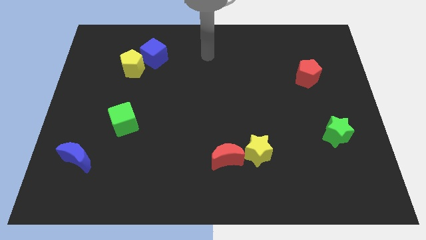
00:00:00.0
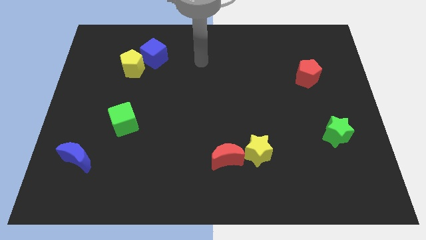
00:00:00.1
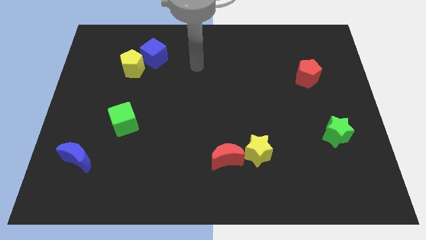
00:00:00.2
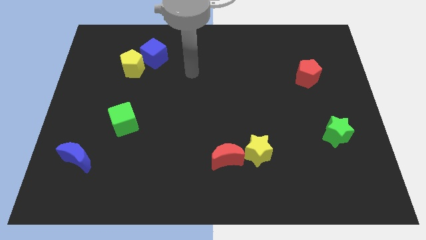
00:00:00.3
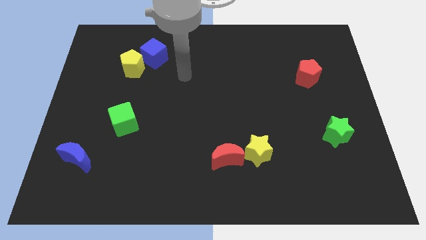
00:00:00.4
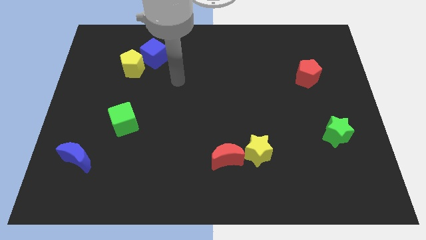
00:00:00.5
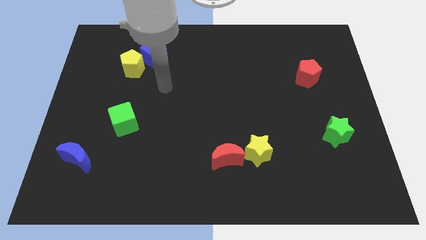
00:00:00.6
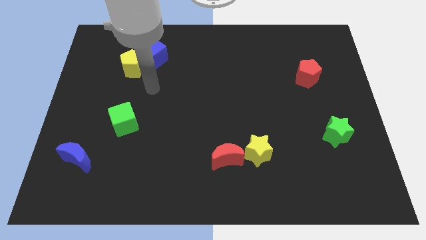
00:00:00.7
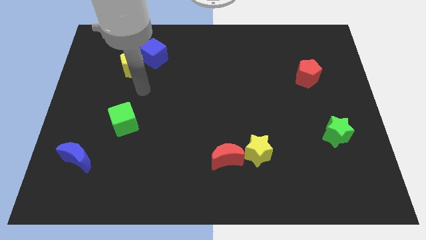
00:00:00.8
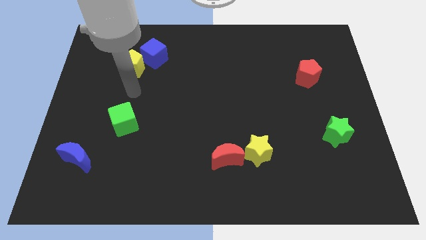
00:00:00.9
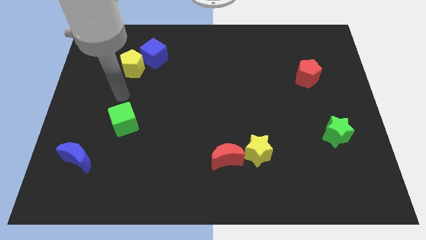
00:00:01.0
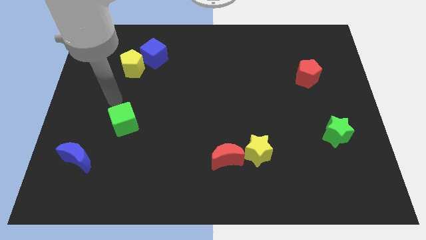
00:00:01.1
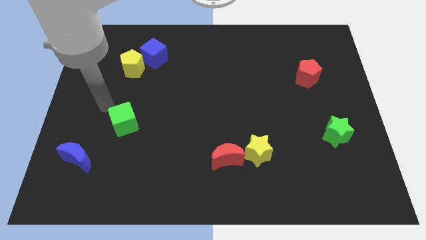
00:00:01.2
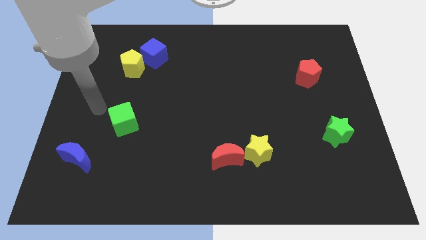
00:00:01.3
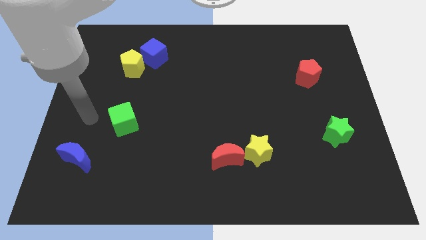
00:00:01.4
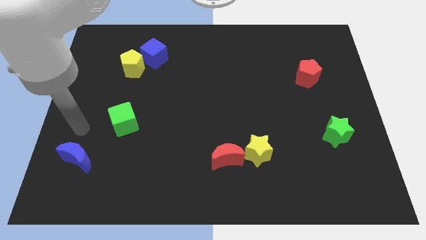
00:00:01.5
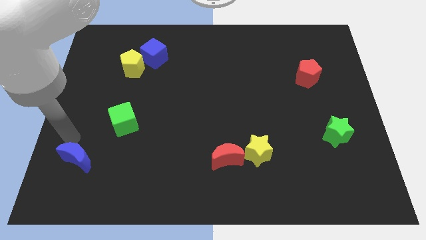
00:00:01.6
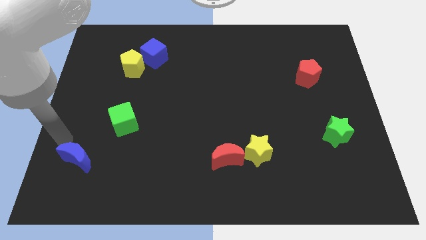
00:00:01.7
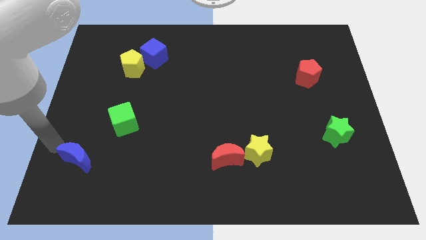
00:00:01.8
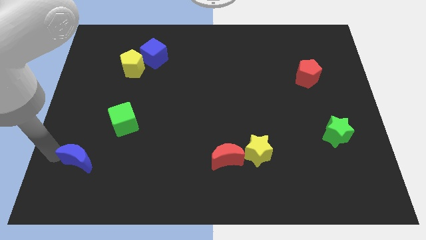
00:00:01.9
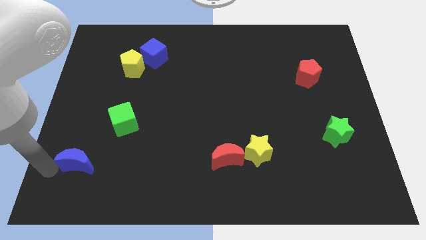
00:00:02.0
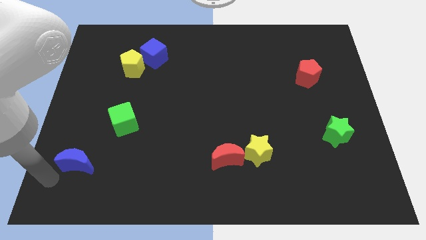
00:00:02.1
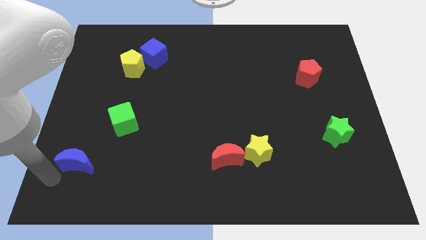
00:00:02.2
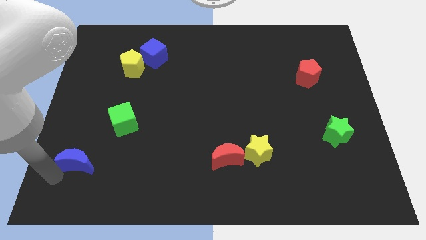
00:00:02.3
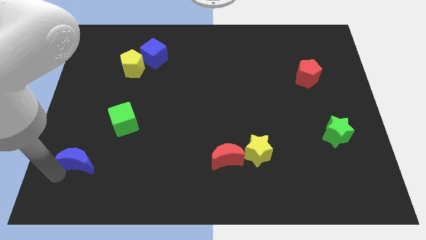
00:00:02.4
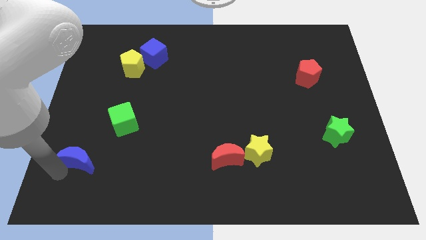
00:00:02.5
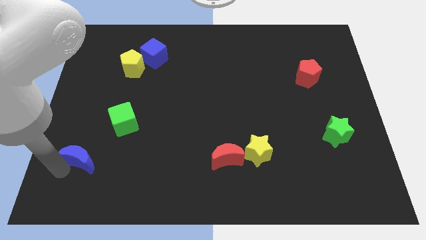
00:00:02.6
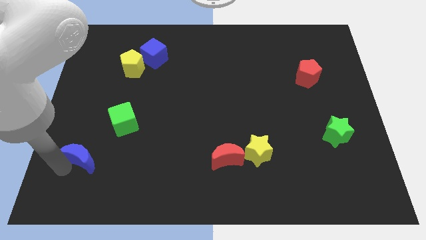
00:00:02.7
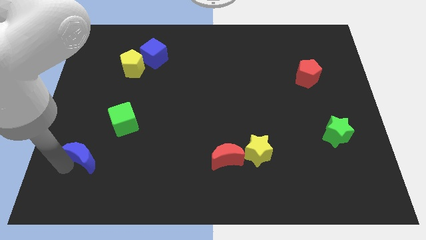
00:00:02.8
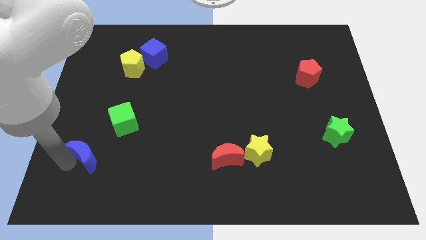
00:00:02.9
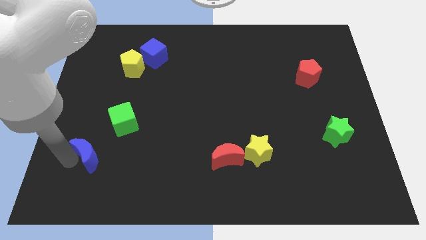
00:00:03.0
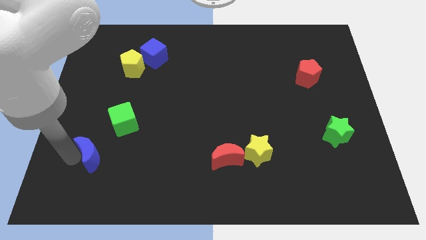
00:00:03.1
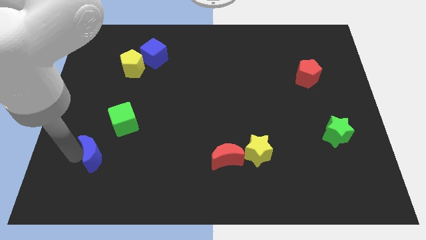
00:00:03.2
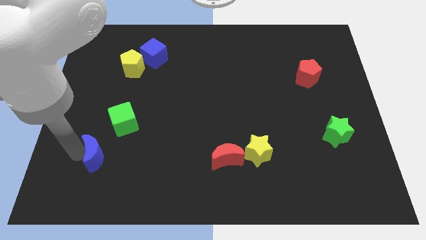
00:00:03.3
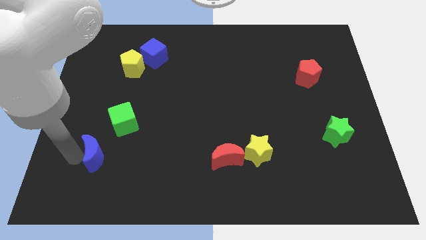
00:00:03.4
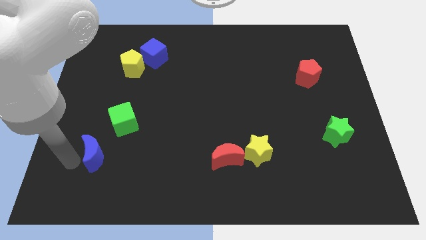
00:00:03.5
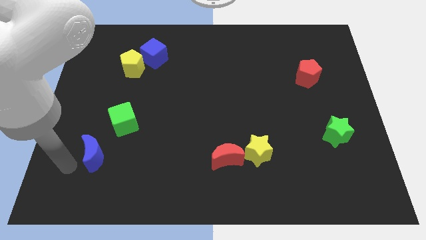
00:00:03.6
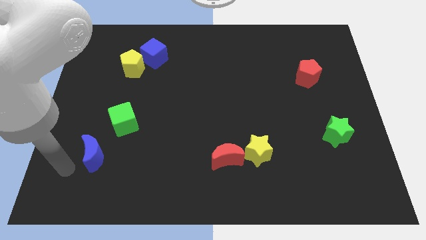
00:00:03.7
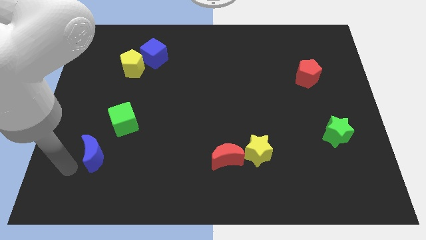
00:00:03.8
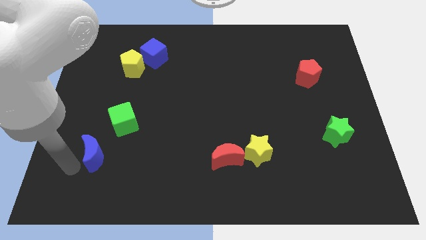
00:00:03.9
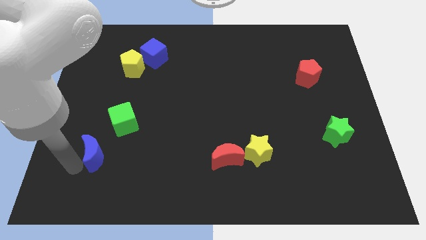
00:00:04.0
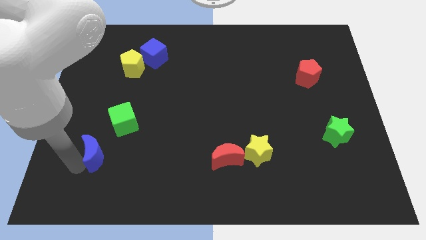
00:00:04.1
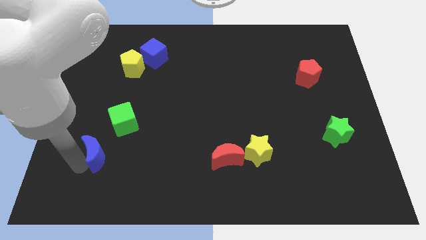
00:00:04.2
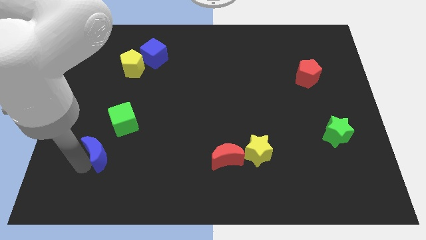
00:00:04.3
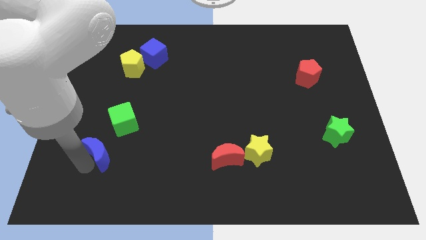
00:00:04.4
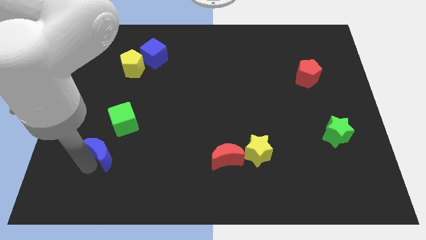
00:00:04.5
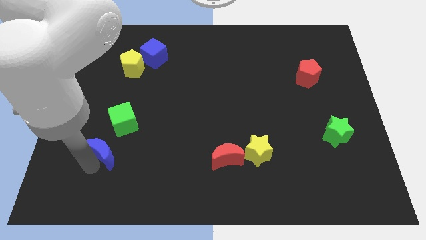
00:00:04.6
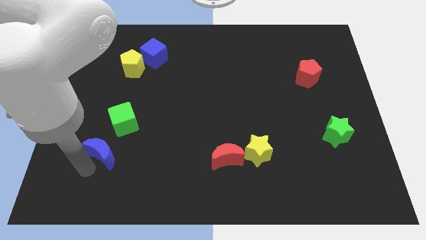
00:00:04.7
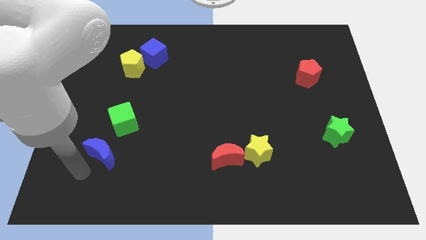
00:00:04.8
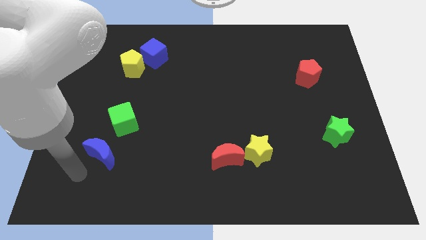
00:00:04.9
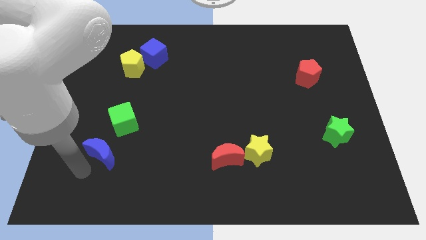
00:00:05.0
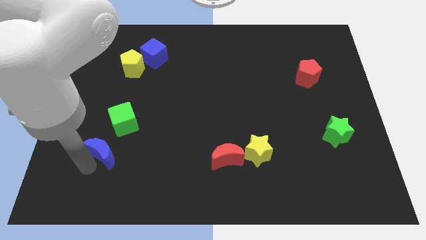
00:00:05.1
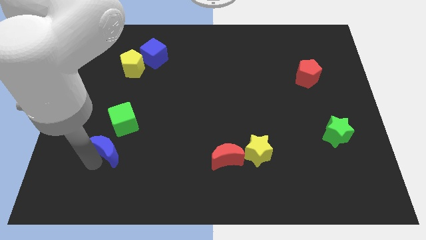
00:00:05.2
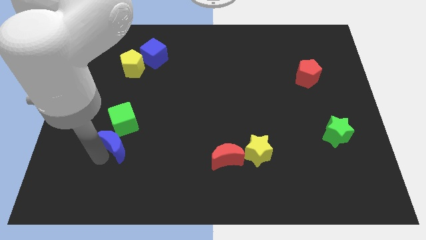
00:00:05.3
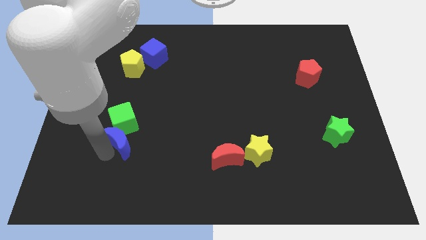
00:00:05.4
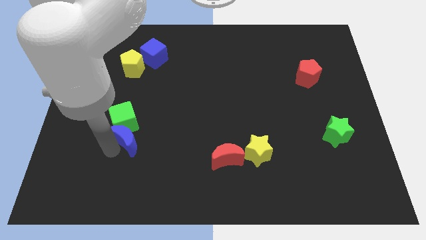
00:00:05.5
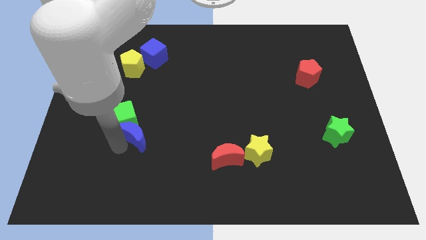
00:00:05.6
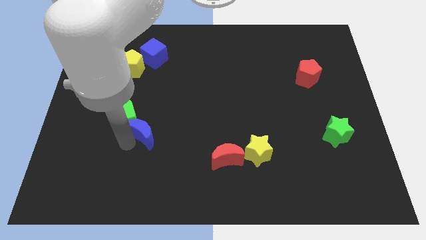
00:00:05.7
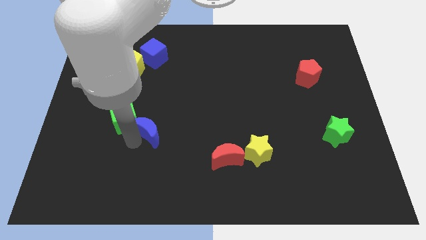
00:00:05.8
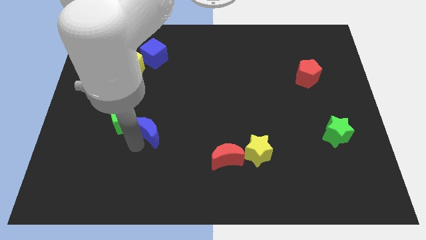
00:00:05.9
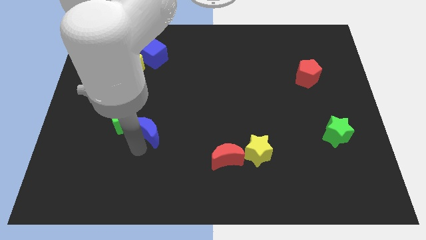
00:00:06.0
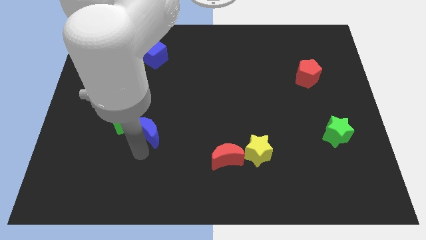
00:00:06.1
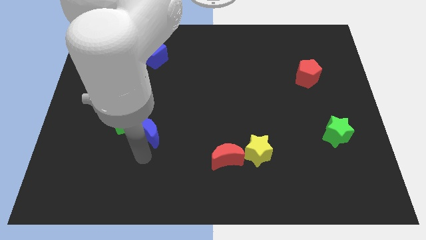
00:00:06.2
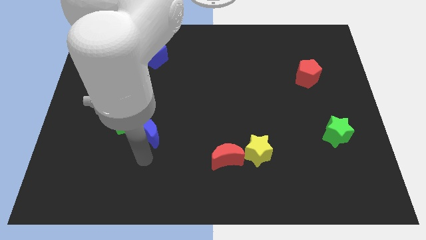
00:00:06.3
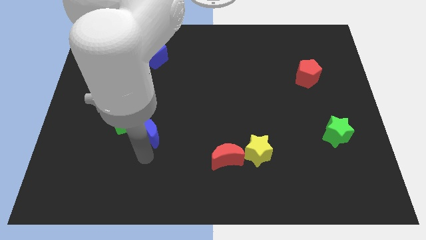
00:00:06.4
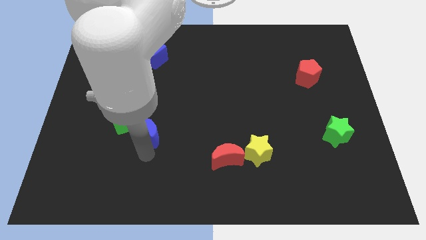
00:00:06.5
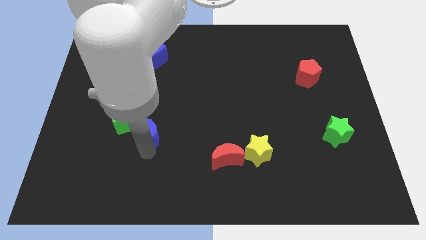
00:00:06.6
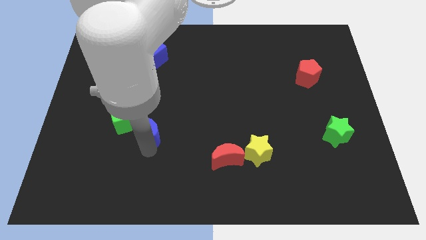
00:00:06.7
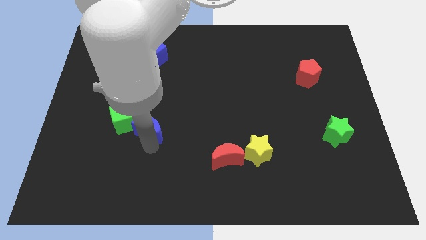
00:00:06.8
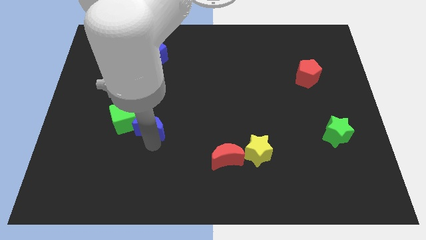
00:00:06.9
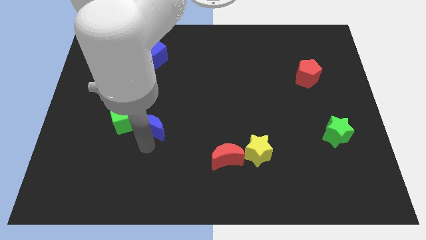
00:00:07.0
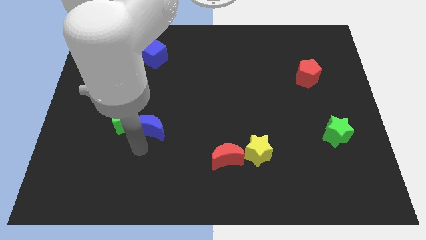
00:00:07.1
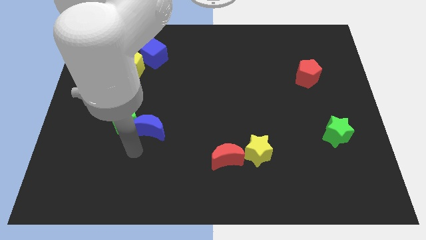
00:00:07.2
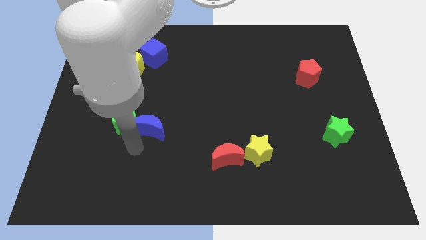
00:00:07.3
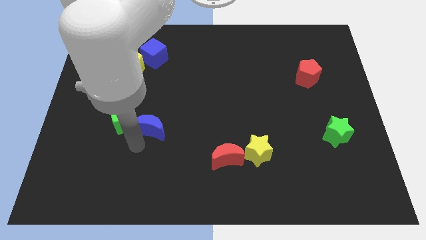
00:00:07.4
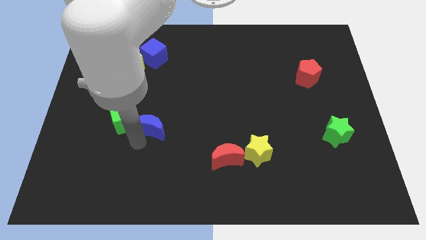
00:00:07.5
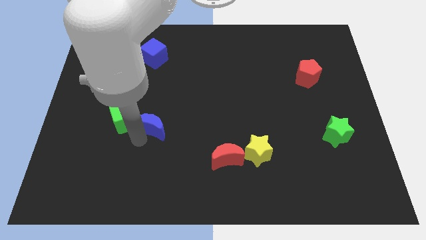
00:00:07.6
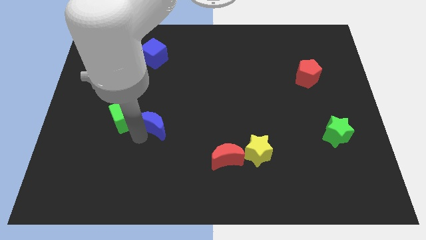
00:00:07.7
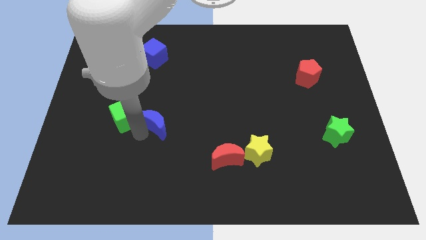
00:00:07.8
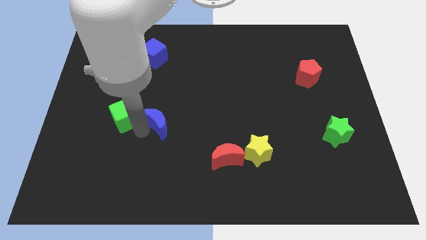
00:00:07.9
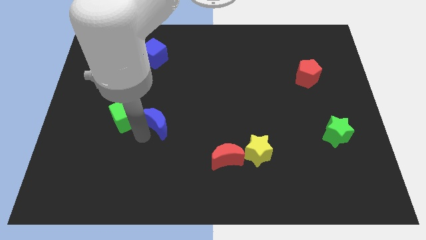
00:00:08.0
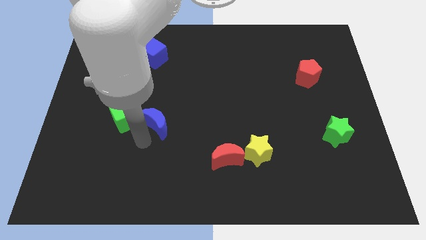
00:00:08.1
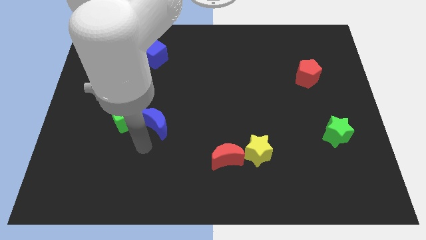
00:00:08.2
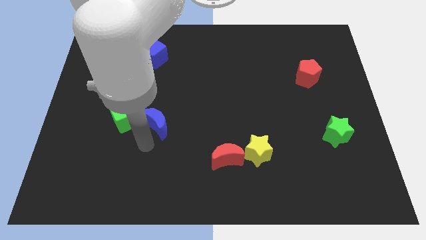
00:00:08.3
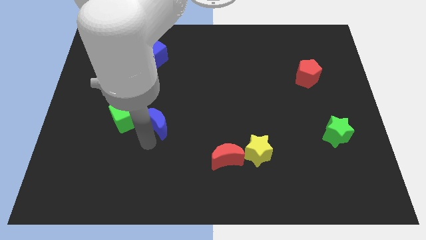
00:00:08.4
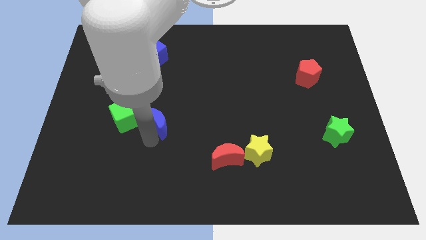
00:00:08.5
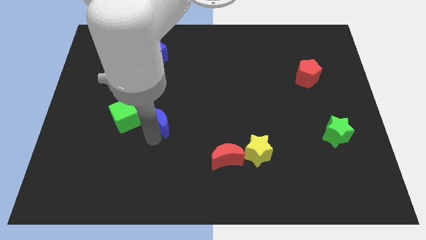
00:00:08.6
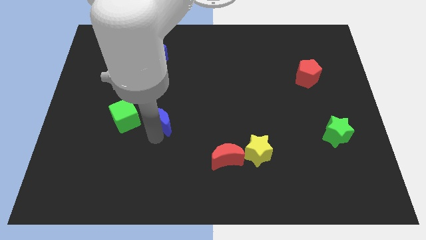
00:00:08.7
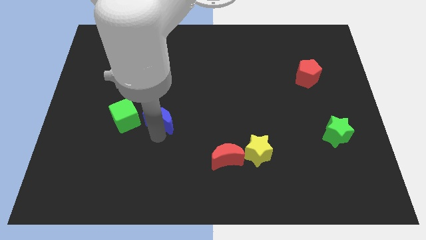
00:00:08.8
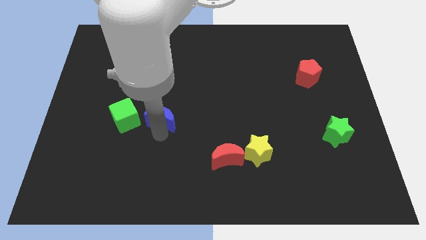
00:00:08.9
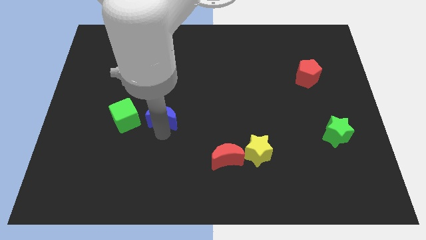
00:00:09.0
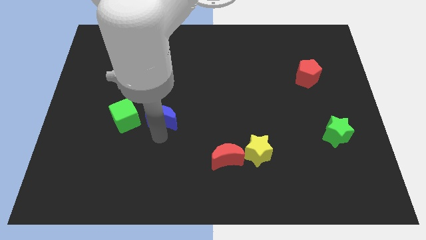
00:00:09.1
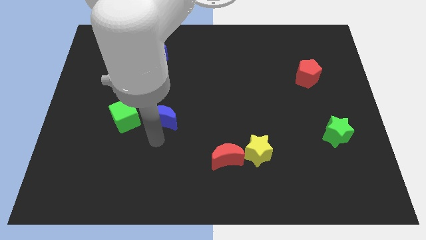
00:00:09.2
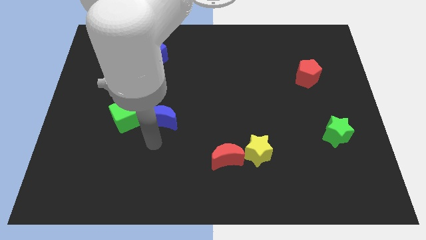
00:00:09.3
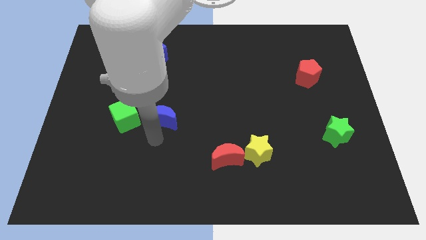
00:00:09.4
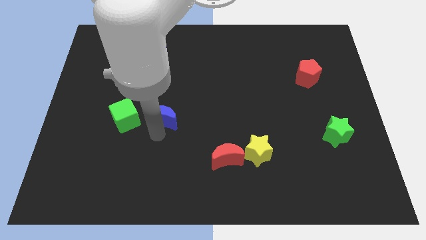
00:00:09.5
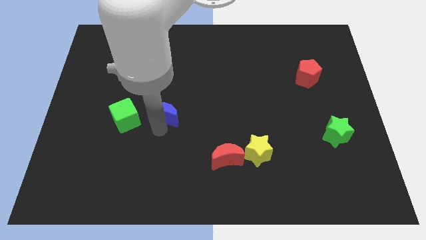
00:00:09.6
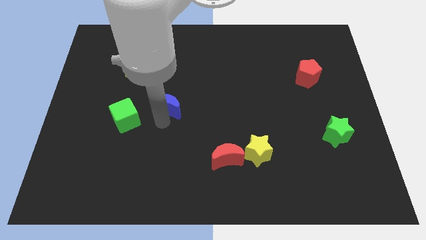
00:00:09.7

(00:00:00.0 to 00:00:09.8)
push the blue moon up and right diagonally
